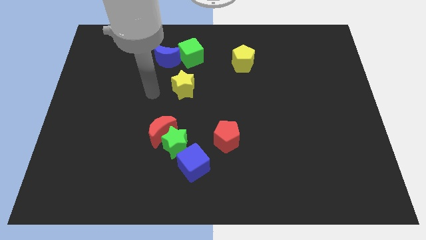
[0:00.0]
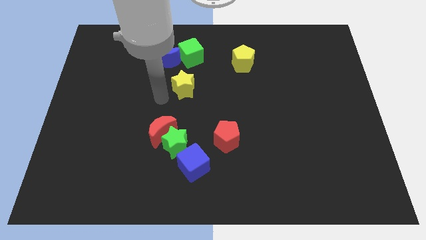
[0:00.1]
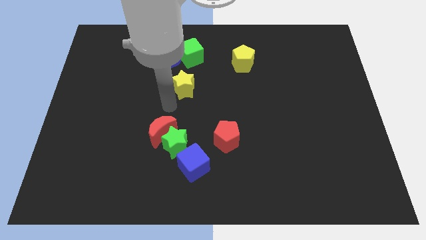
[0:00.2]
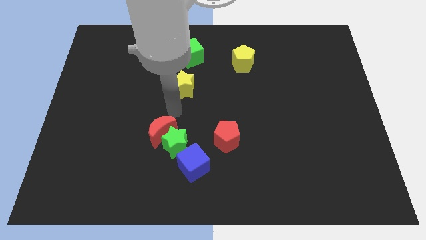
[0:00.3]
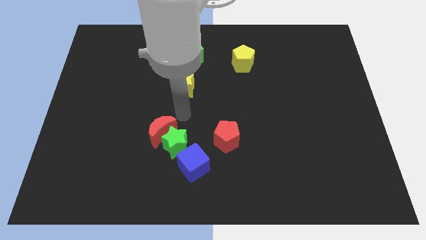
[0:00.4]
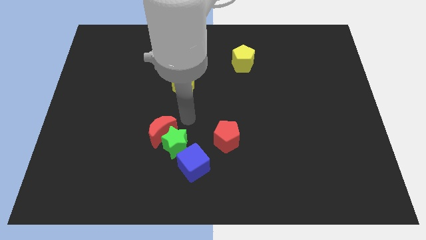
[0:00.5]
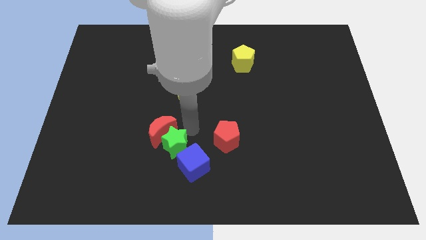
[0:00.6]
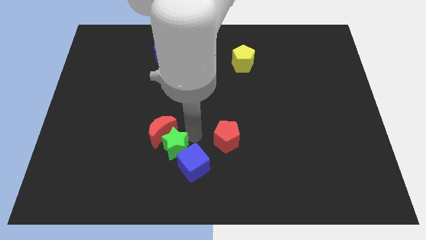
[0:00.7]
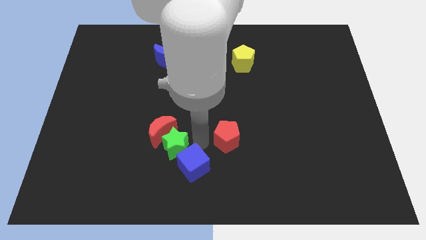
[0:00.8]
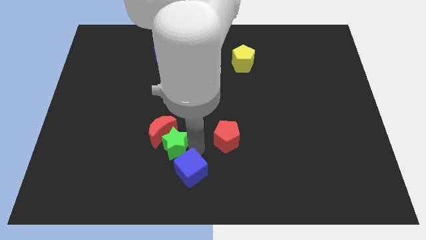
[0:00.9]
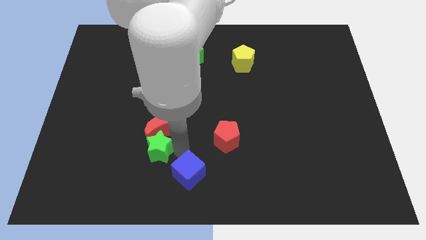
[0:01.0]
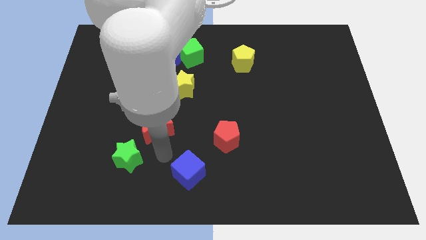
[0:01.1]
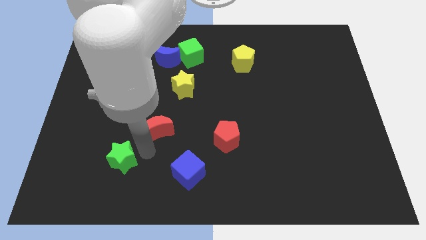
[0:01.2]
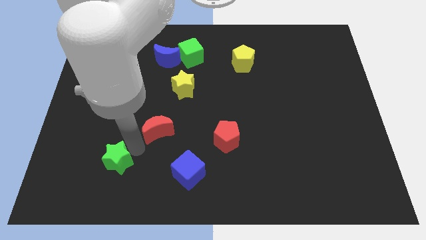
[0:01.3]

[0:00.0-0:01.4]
pull the red moon apart from the green star

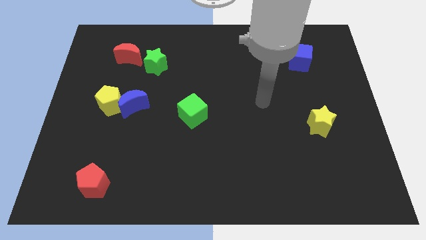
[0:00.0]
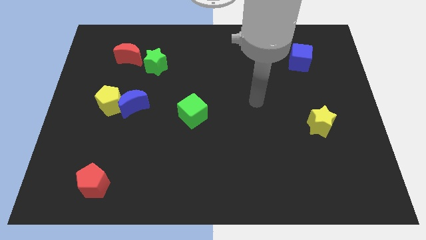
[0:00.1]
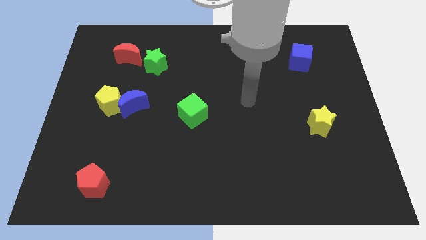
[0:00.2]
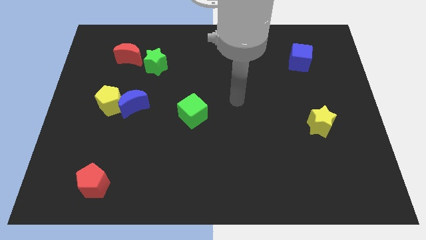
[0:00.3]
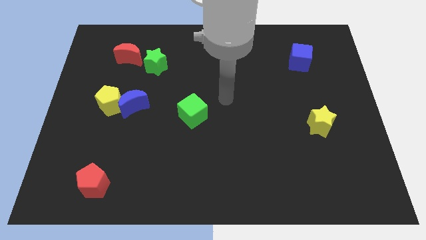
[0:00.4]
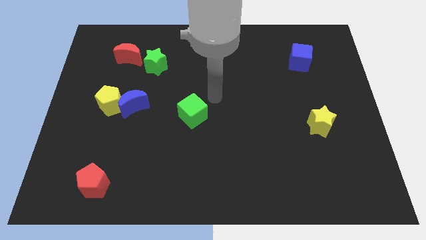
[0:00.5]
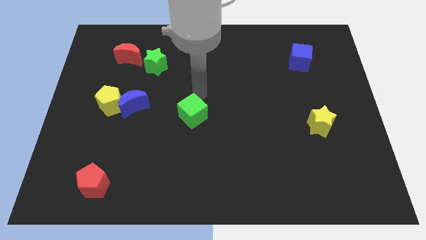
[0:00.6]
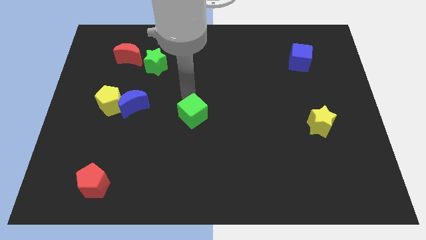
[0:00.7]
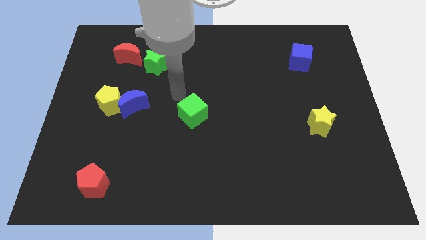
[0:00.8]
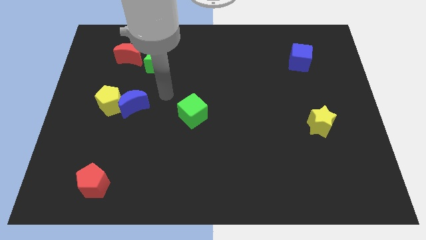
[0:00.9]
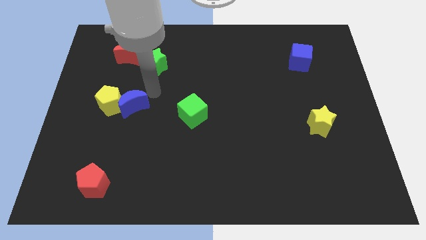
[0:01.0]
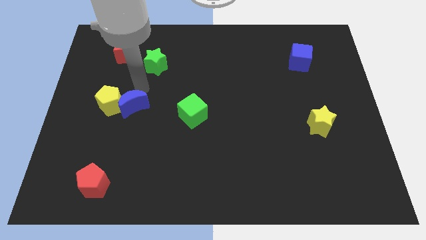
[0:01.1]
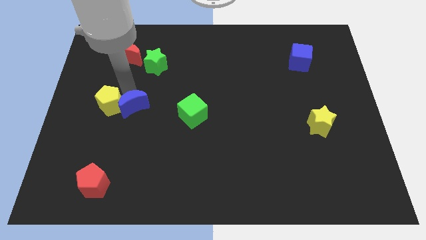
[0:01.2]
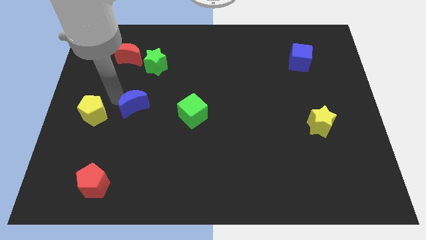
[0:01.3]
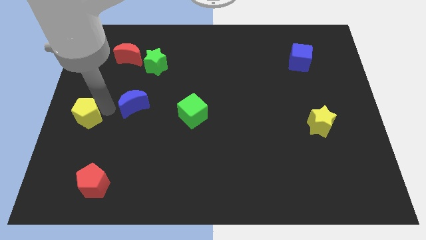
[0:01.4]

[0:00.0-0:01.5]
separate the blue moon from the yellow pentagon

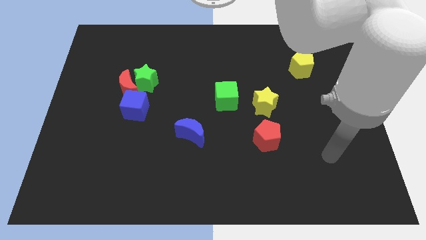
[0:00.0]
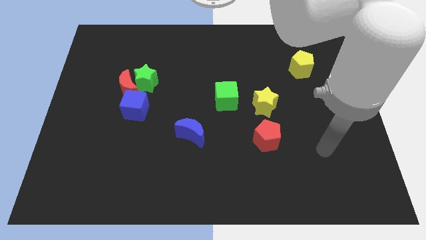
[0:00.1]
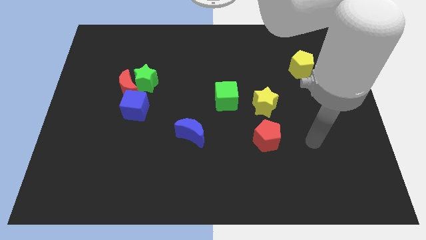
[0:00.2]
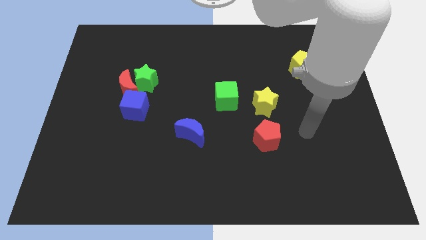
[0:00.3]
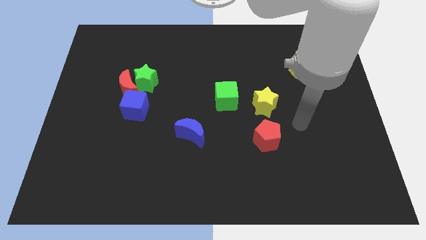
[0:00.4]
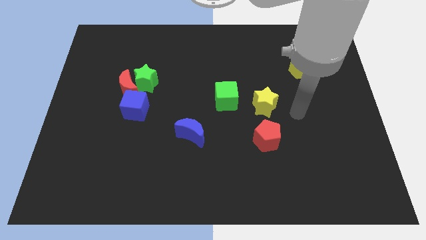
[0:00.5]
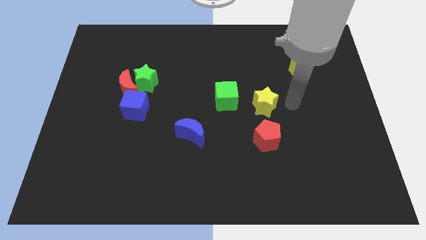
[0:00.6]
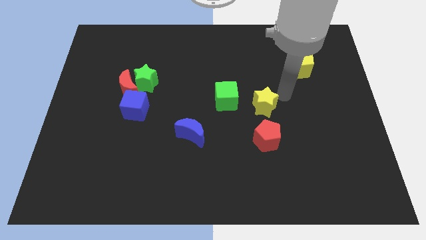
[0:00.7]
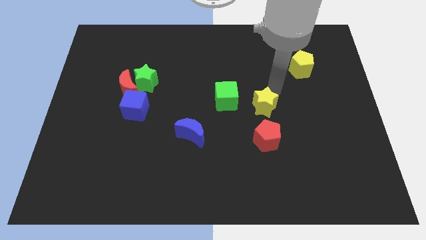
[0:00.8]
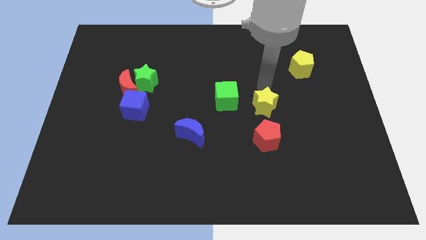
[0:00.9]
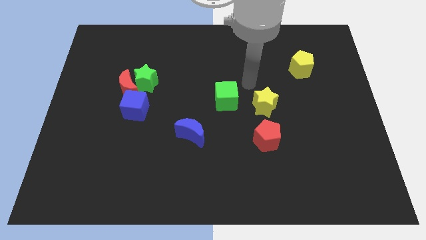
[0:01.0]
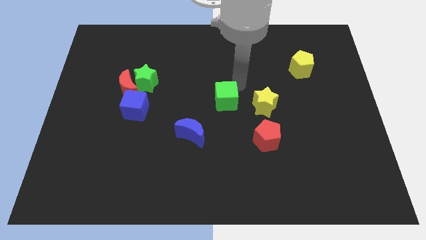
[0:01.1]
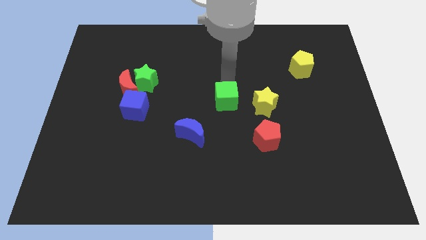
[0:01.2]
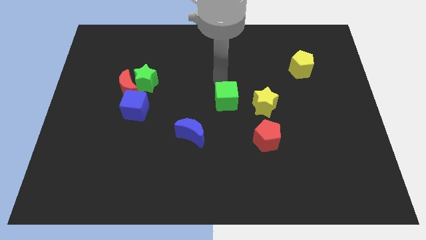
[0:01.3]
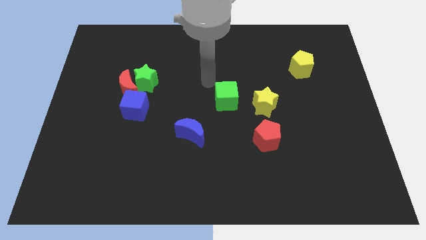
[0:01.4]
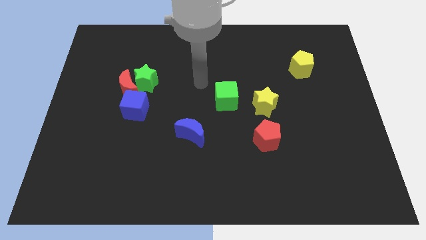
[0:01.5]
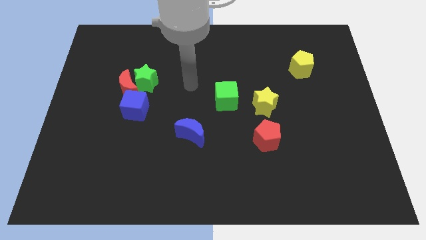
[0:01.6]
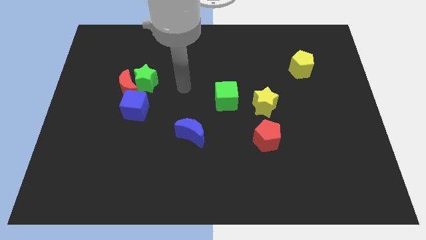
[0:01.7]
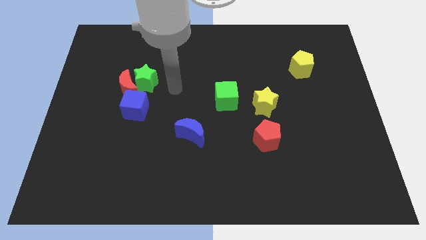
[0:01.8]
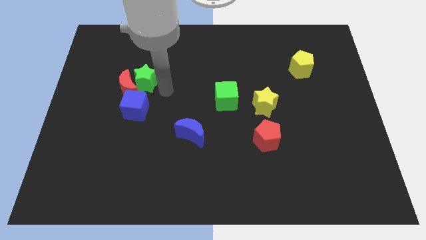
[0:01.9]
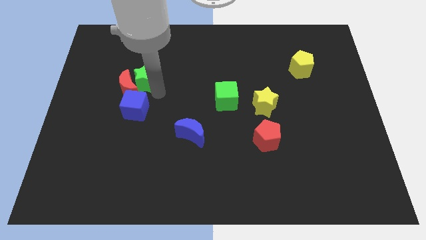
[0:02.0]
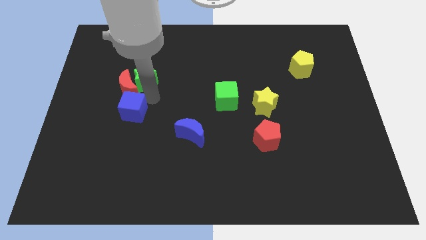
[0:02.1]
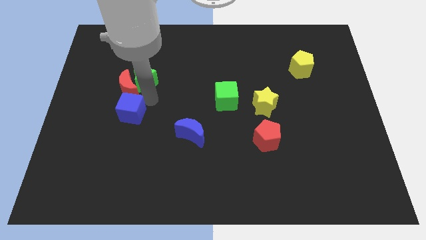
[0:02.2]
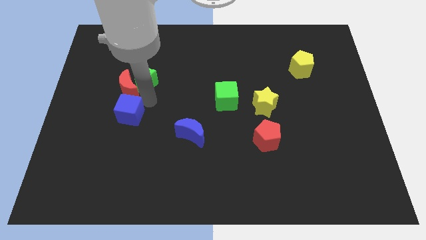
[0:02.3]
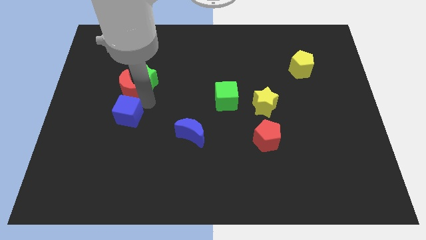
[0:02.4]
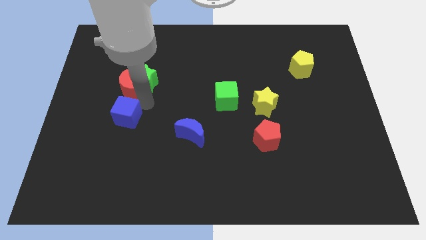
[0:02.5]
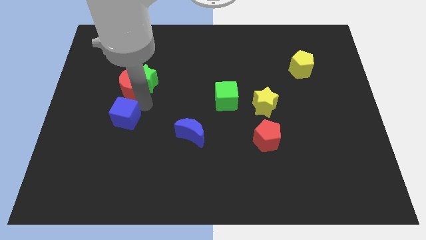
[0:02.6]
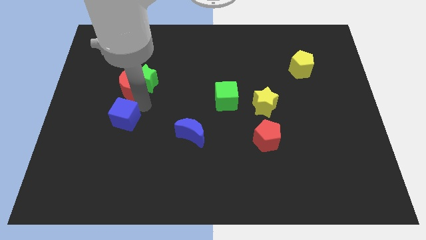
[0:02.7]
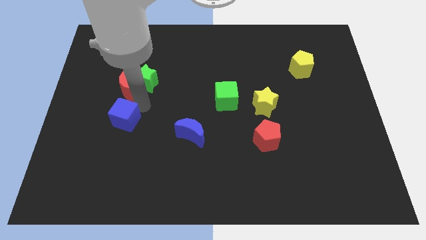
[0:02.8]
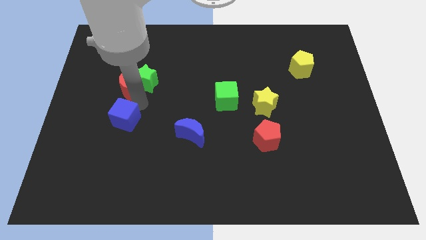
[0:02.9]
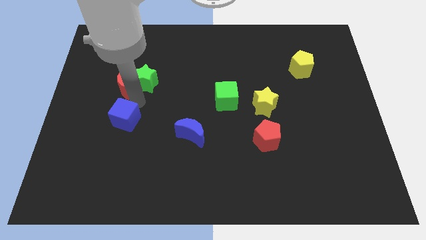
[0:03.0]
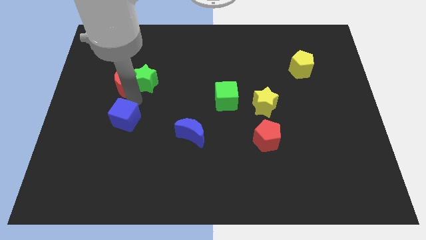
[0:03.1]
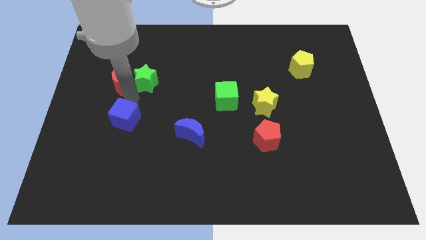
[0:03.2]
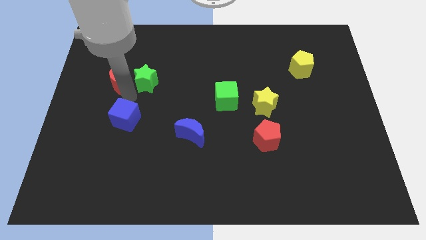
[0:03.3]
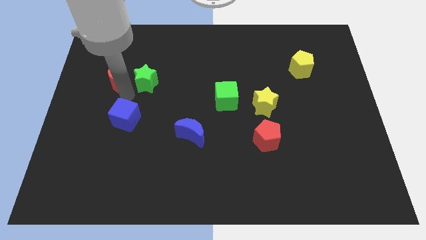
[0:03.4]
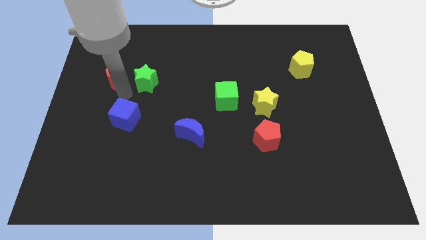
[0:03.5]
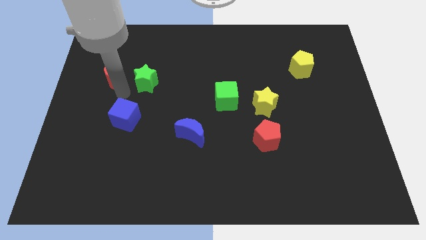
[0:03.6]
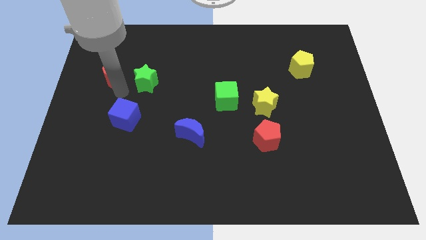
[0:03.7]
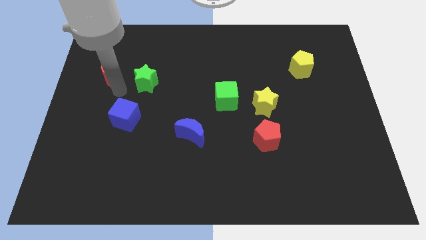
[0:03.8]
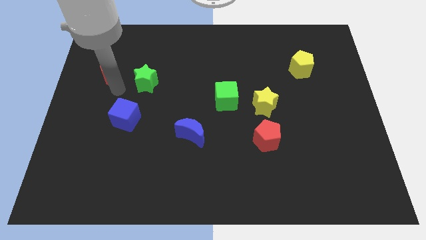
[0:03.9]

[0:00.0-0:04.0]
move the red moon away from the green star and blue cube

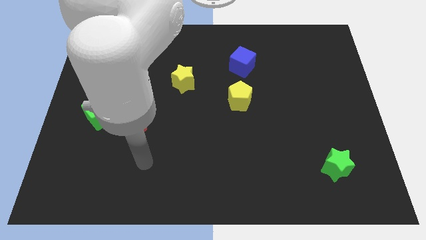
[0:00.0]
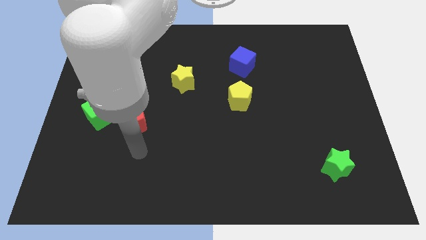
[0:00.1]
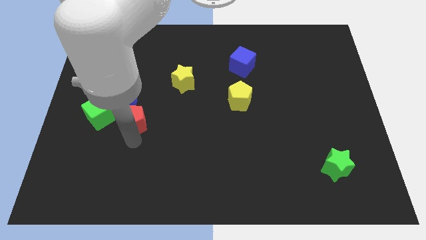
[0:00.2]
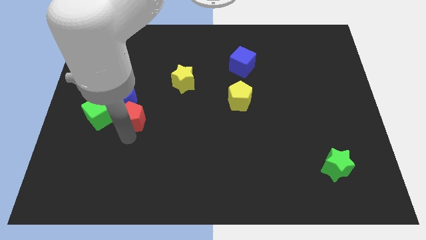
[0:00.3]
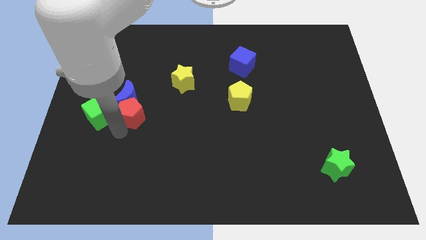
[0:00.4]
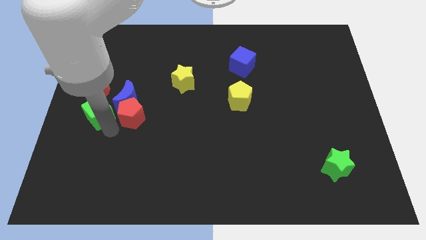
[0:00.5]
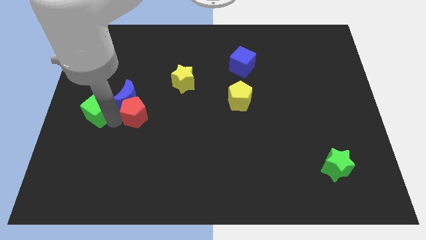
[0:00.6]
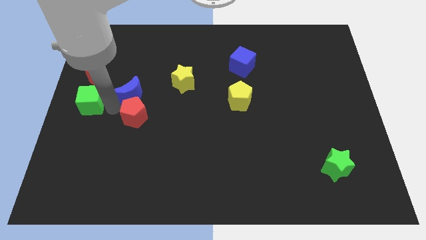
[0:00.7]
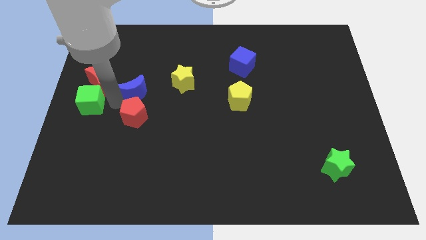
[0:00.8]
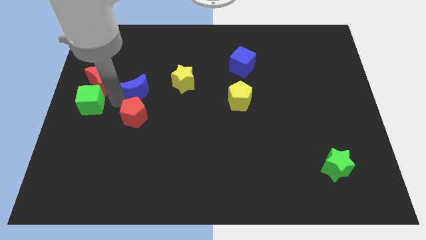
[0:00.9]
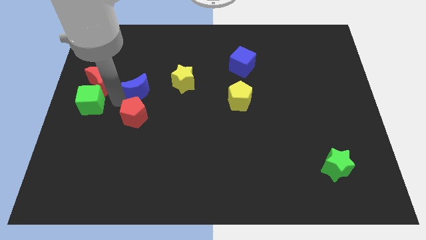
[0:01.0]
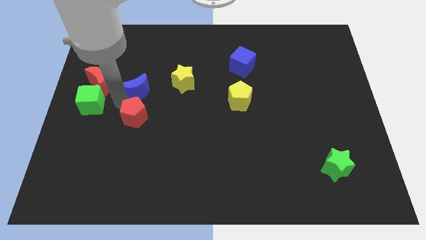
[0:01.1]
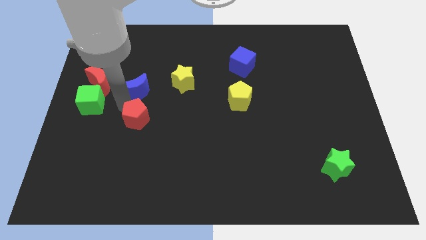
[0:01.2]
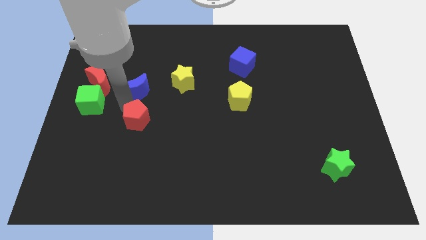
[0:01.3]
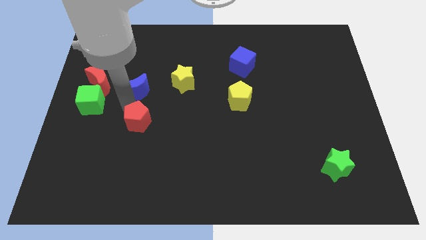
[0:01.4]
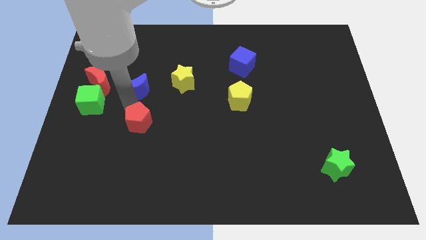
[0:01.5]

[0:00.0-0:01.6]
pull the red pentagon apart from the blue moon and green cube

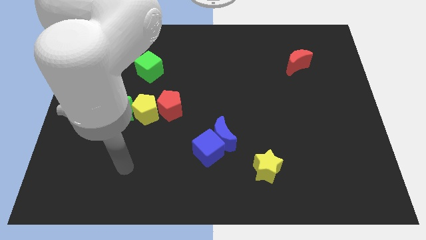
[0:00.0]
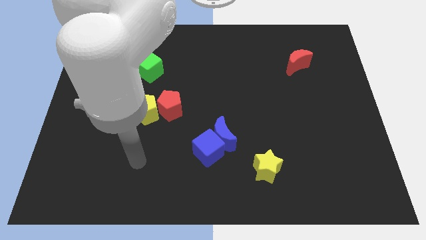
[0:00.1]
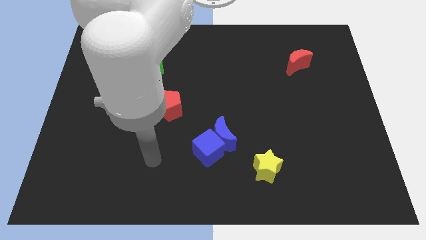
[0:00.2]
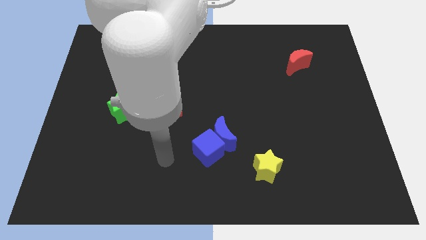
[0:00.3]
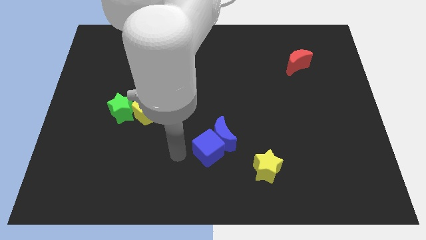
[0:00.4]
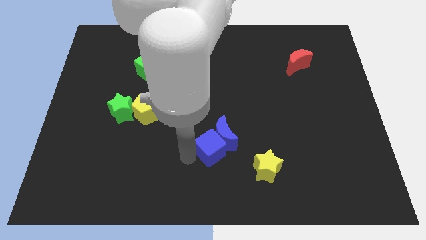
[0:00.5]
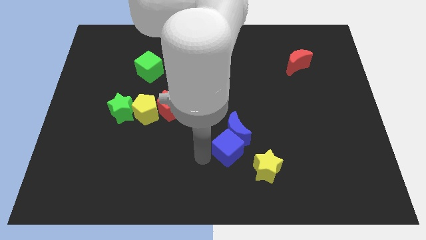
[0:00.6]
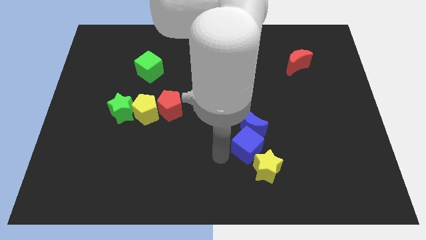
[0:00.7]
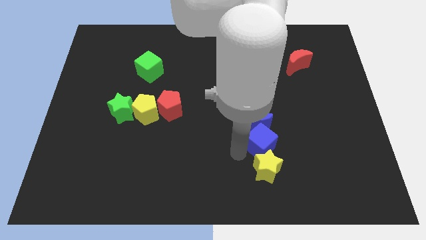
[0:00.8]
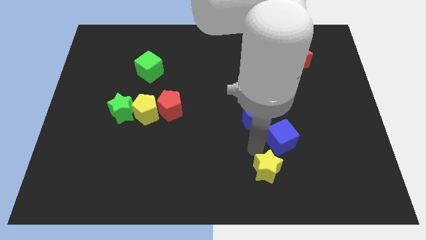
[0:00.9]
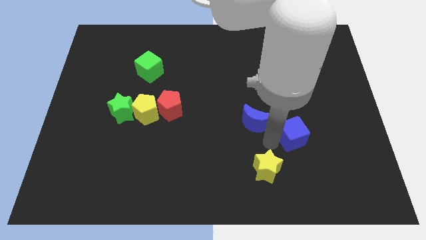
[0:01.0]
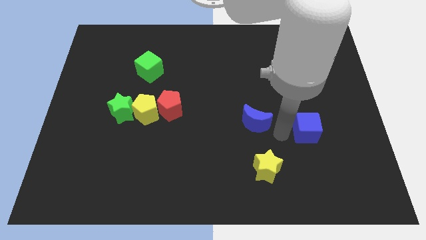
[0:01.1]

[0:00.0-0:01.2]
pull the blue moon apart from the blue cube
